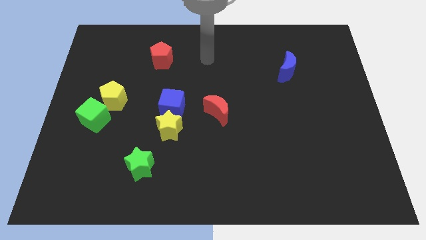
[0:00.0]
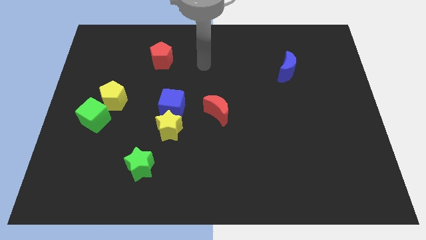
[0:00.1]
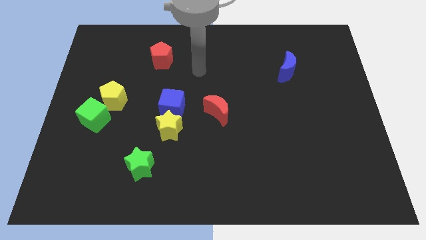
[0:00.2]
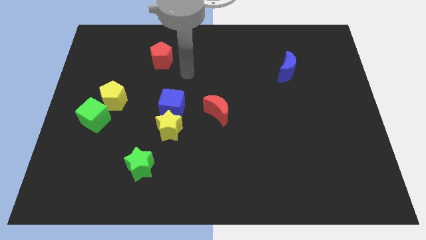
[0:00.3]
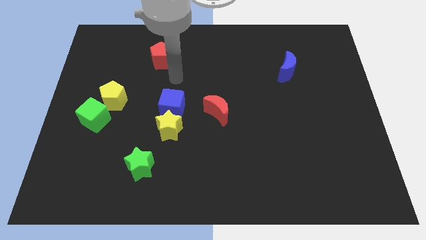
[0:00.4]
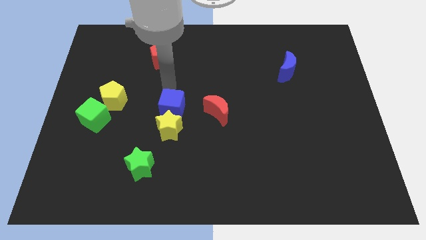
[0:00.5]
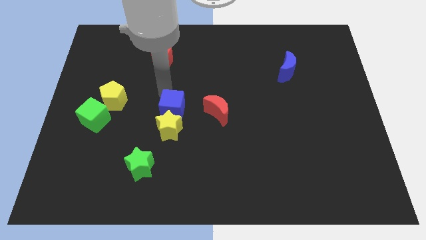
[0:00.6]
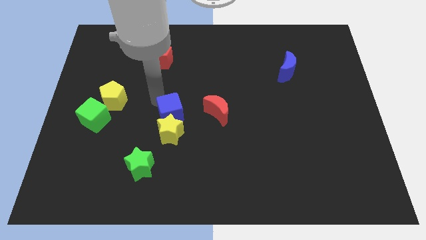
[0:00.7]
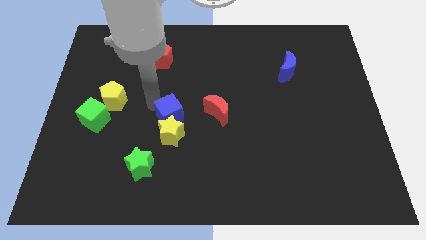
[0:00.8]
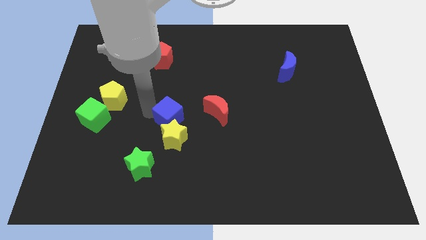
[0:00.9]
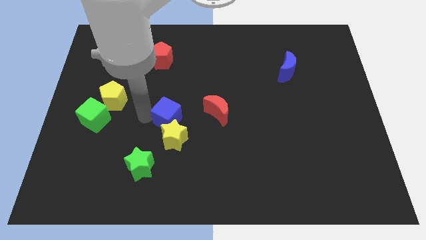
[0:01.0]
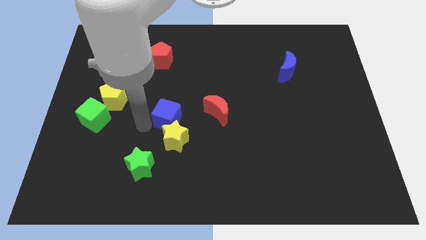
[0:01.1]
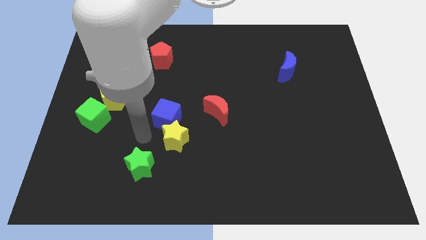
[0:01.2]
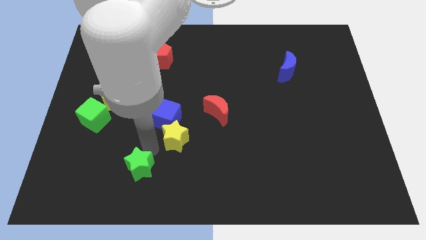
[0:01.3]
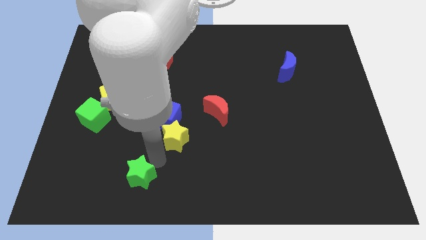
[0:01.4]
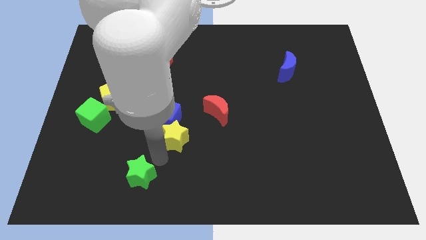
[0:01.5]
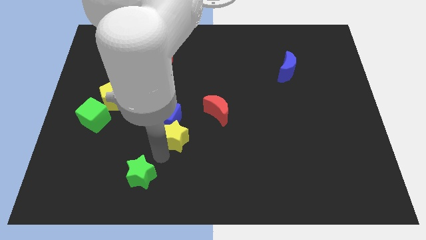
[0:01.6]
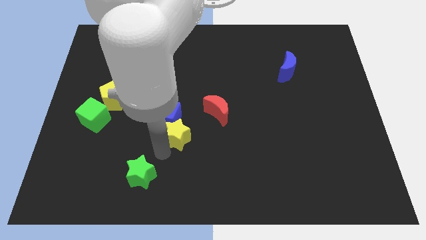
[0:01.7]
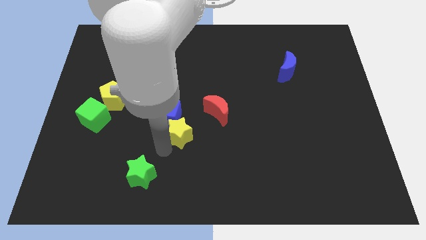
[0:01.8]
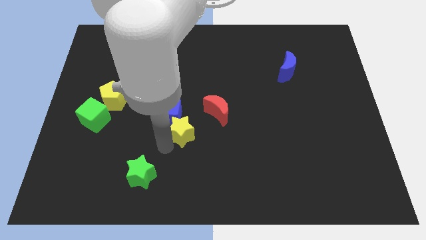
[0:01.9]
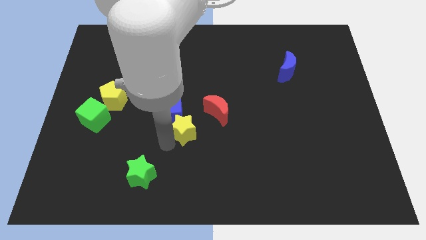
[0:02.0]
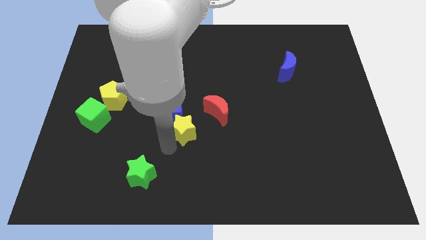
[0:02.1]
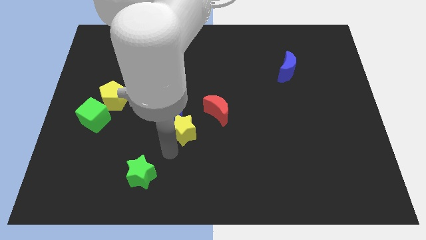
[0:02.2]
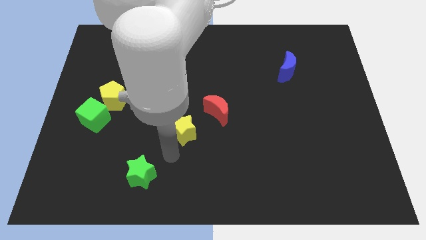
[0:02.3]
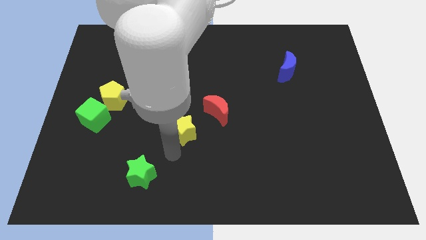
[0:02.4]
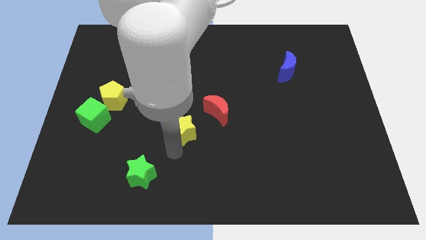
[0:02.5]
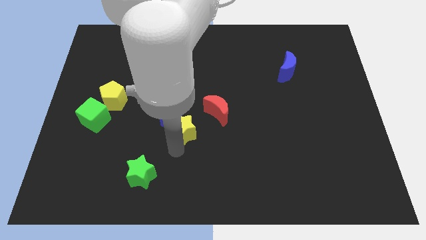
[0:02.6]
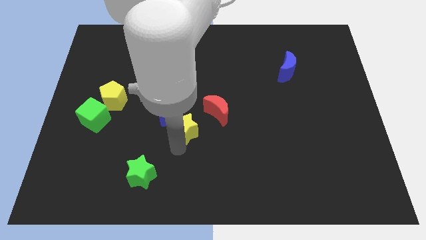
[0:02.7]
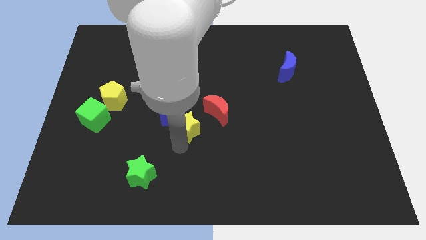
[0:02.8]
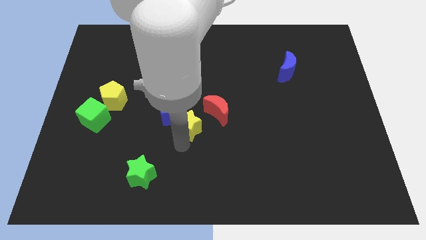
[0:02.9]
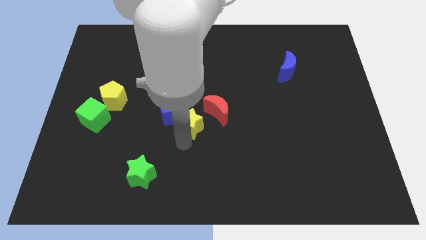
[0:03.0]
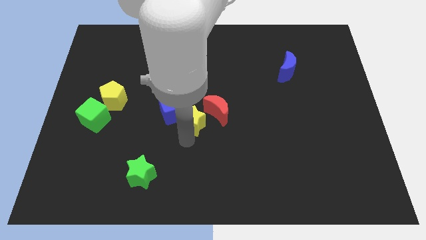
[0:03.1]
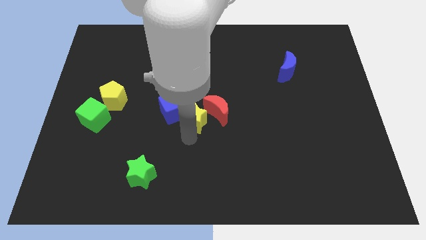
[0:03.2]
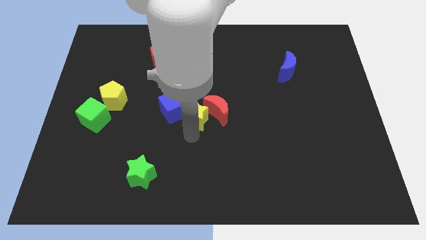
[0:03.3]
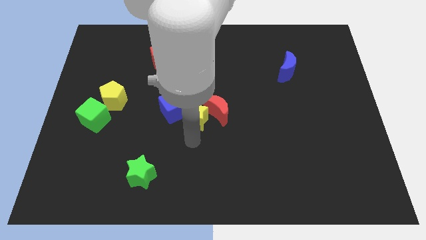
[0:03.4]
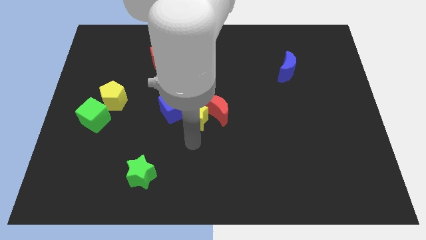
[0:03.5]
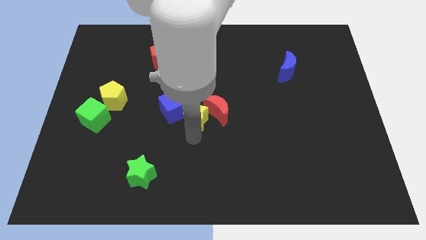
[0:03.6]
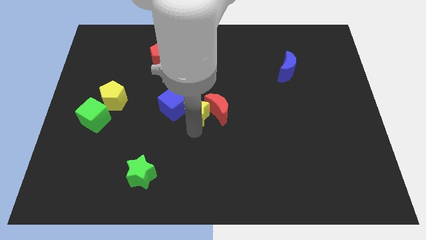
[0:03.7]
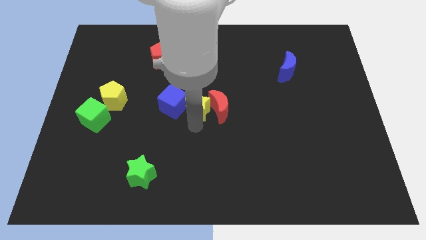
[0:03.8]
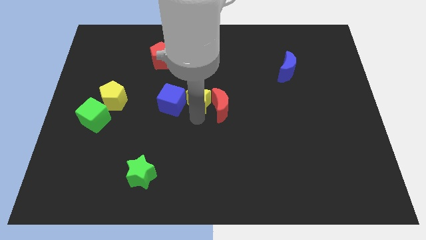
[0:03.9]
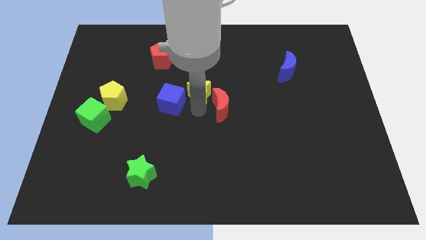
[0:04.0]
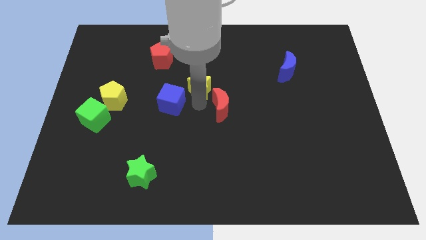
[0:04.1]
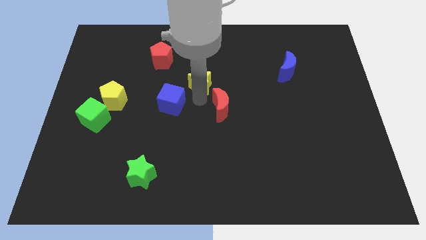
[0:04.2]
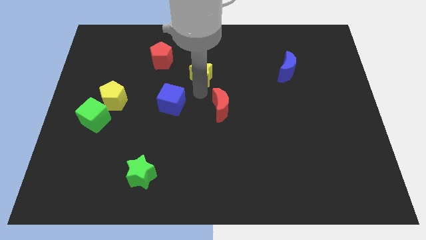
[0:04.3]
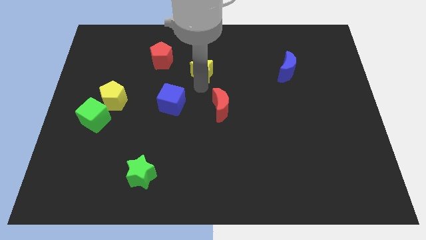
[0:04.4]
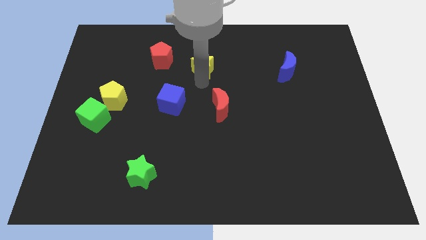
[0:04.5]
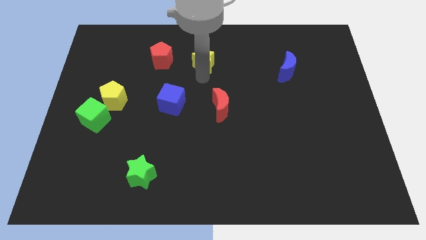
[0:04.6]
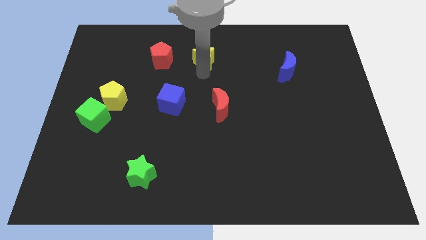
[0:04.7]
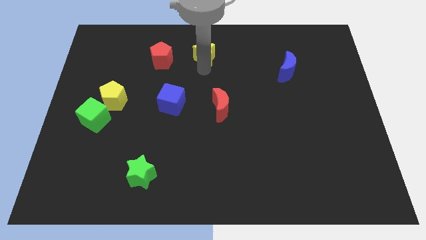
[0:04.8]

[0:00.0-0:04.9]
push the yellow star to the top side

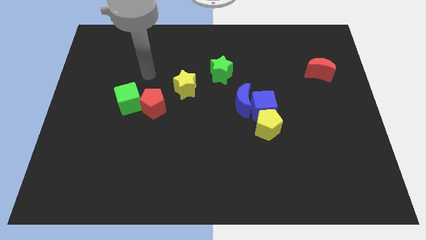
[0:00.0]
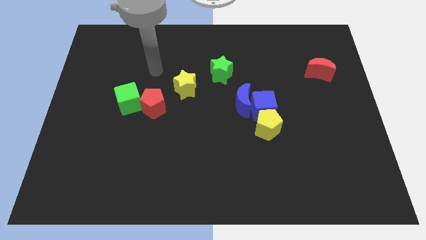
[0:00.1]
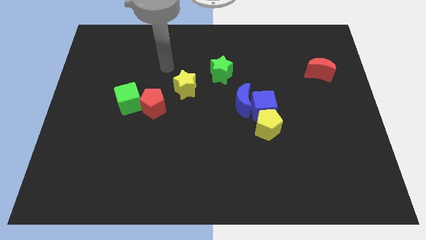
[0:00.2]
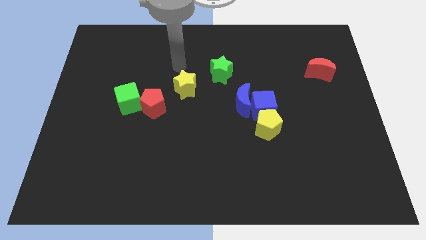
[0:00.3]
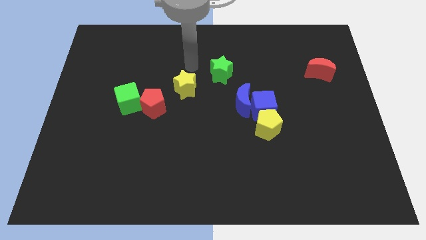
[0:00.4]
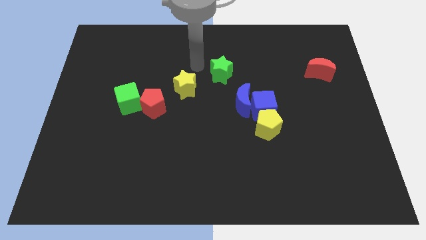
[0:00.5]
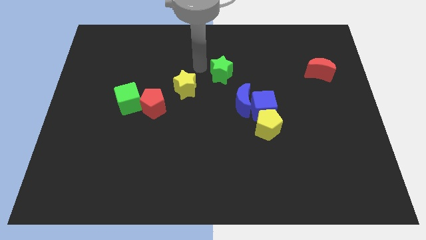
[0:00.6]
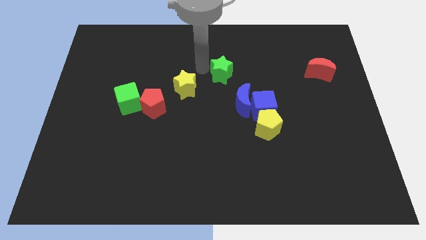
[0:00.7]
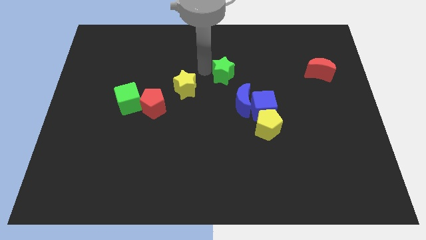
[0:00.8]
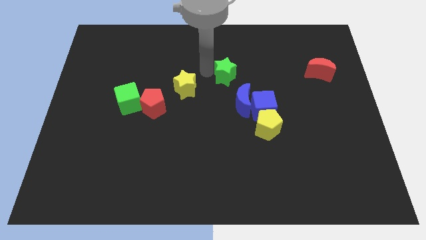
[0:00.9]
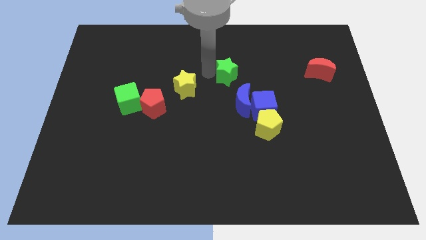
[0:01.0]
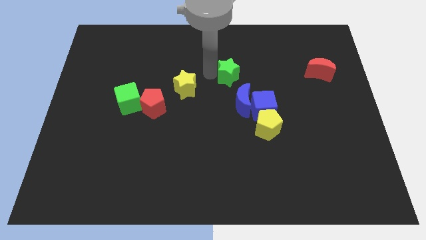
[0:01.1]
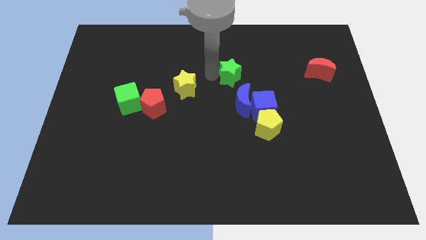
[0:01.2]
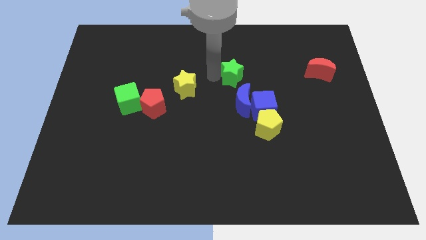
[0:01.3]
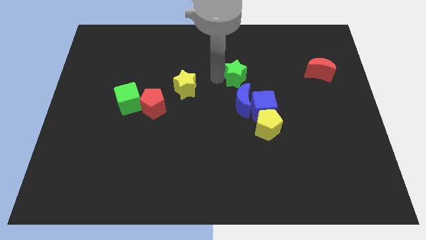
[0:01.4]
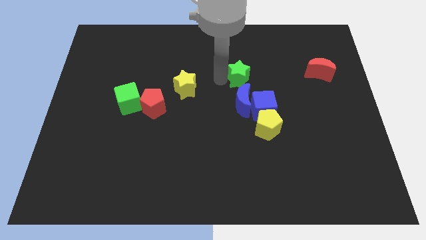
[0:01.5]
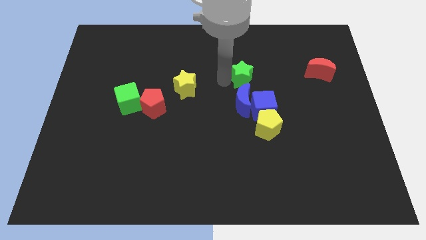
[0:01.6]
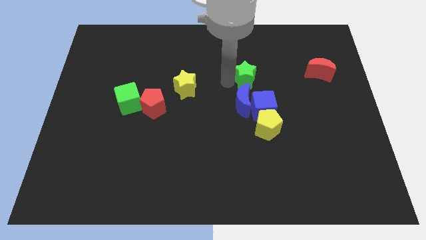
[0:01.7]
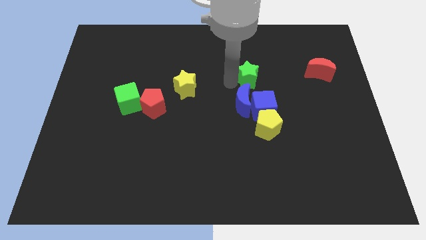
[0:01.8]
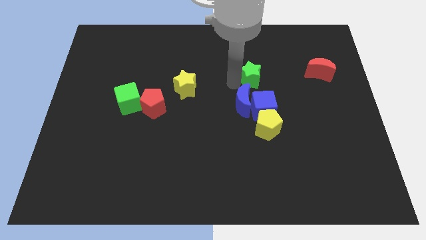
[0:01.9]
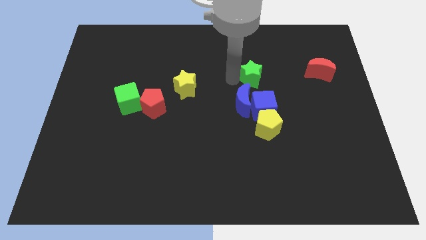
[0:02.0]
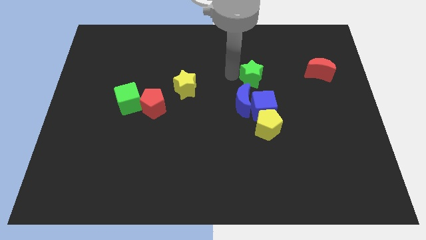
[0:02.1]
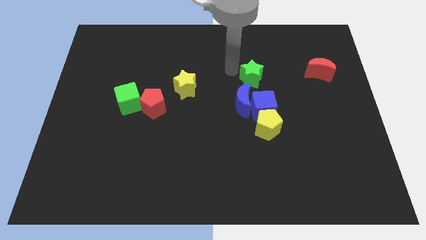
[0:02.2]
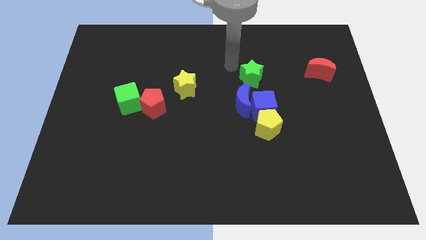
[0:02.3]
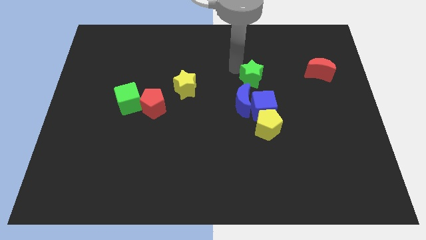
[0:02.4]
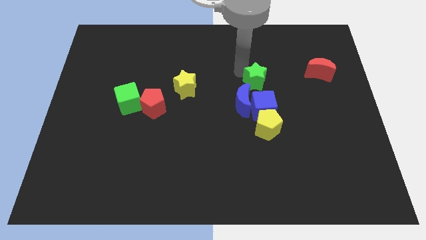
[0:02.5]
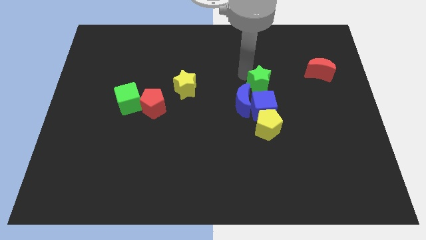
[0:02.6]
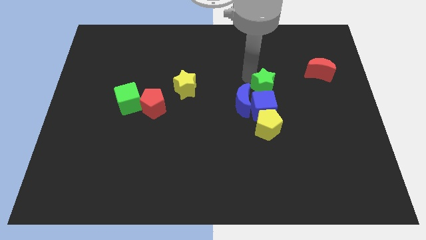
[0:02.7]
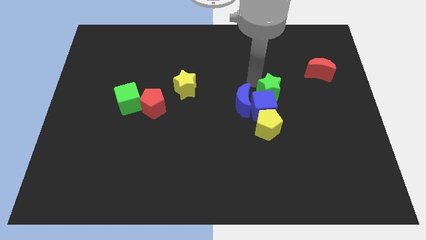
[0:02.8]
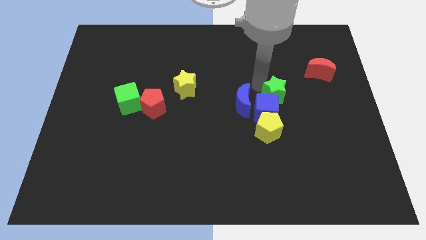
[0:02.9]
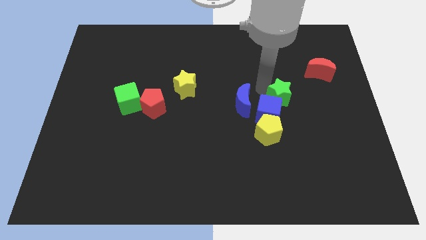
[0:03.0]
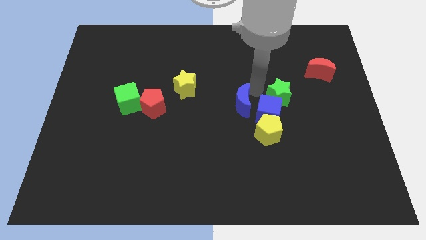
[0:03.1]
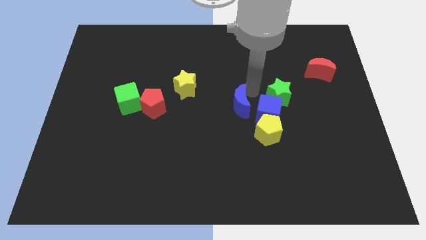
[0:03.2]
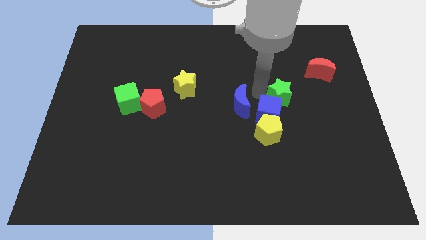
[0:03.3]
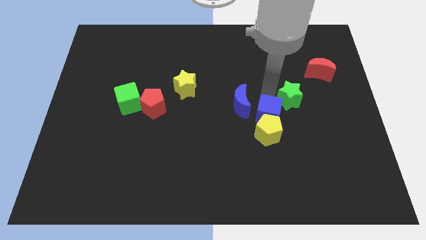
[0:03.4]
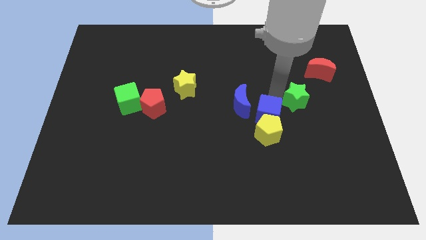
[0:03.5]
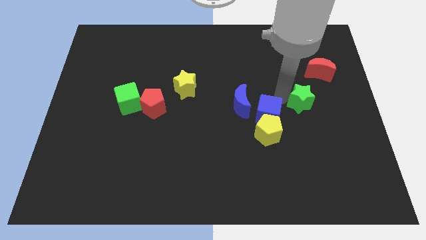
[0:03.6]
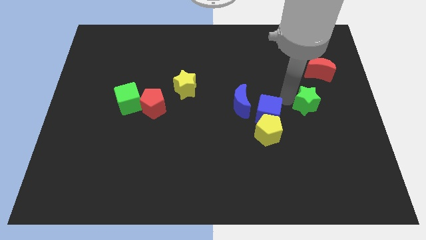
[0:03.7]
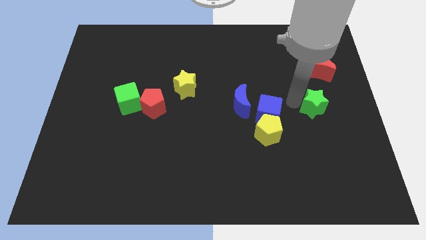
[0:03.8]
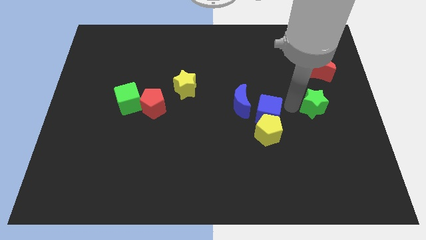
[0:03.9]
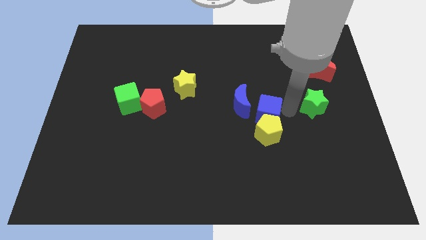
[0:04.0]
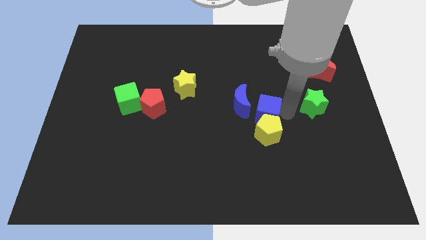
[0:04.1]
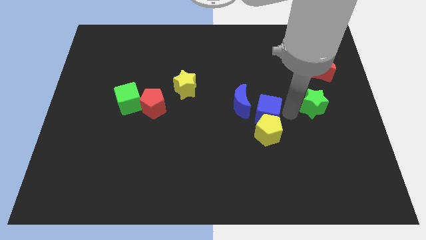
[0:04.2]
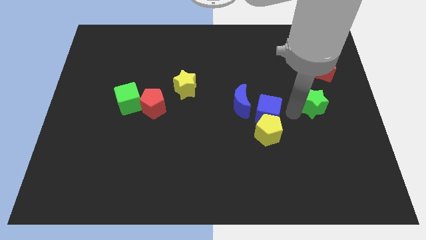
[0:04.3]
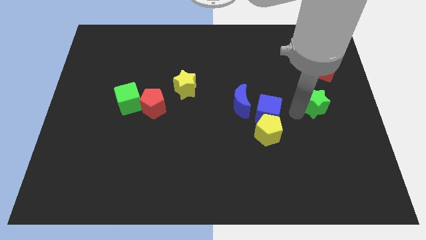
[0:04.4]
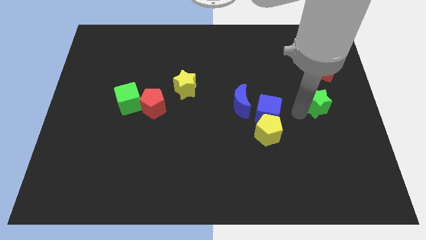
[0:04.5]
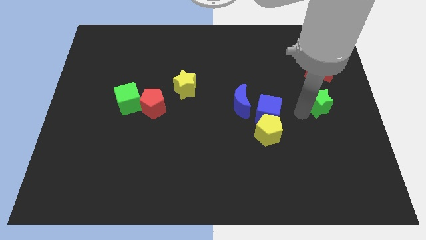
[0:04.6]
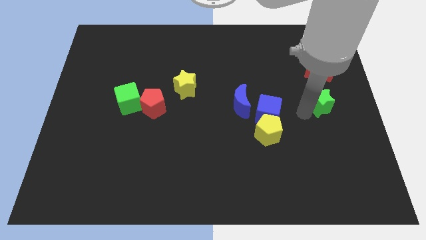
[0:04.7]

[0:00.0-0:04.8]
move the green star to the center right
